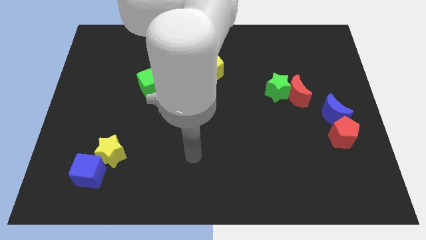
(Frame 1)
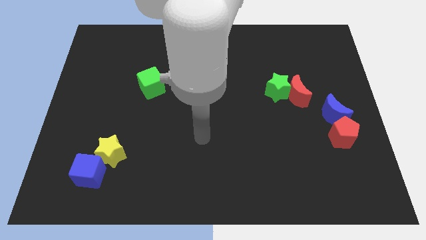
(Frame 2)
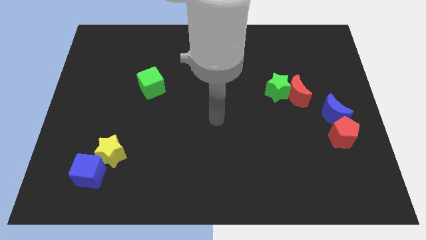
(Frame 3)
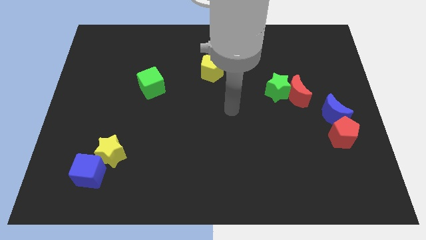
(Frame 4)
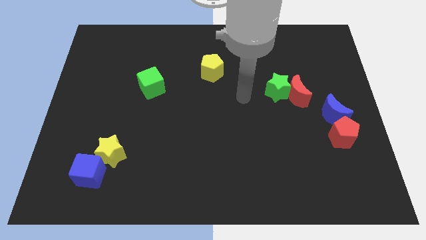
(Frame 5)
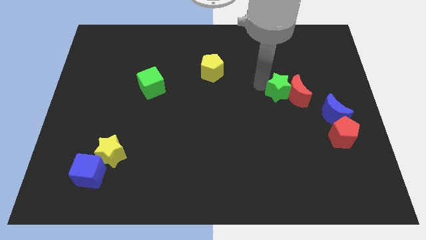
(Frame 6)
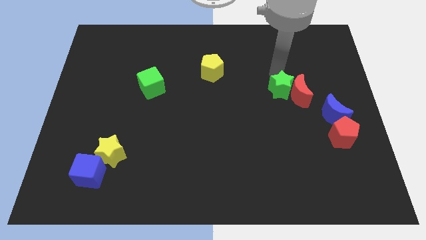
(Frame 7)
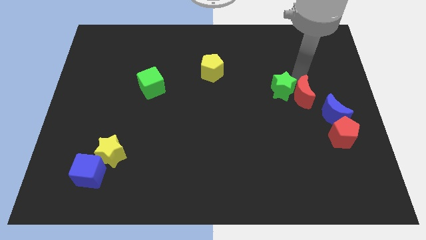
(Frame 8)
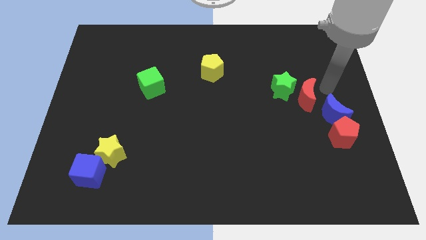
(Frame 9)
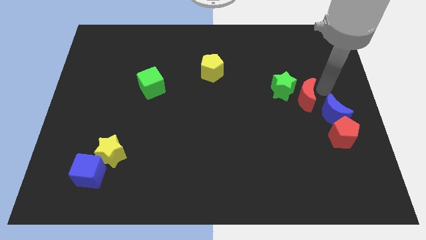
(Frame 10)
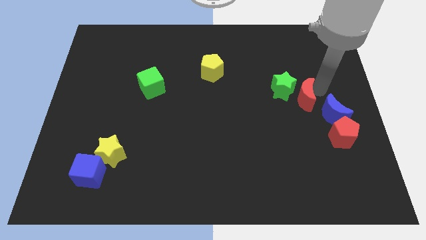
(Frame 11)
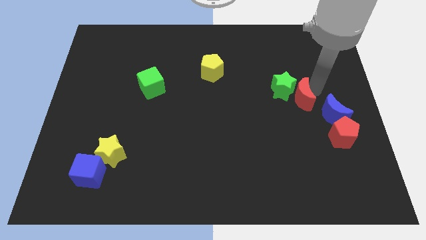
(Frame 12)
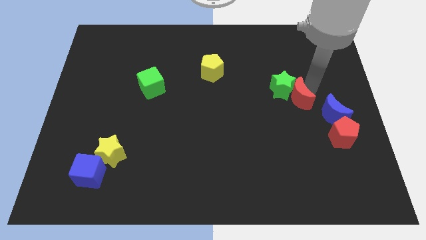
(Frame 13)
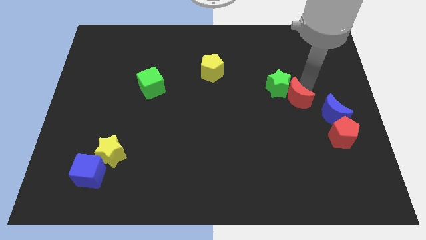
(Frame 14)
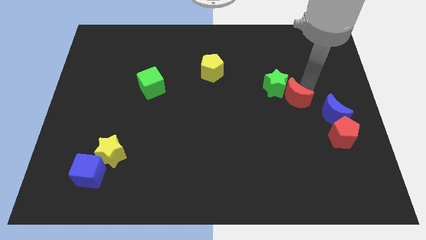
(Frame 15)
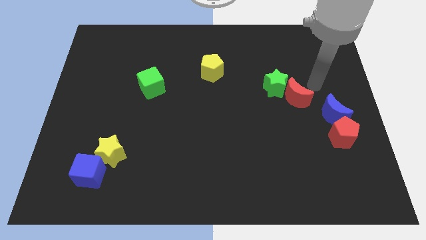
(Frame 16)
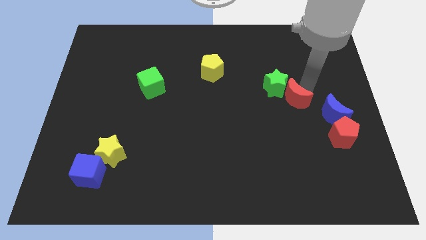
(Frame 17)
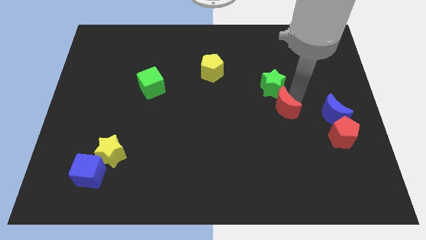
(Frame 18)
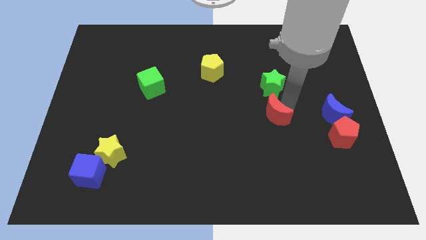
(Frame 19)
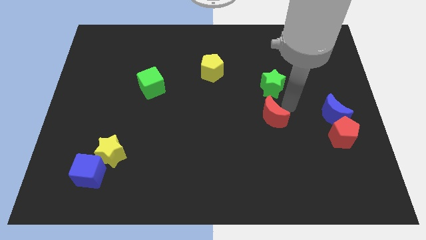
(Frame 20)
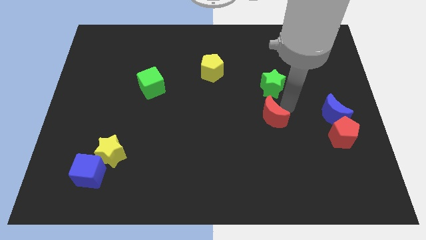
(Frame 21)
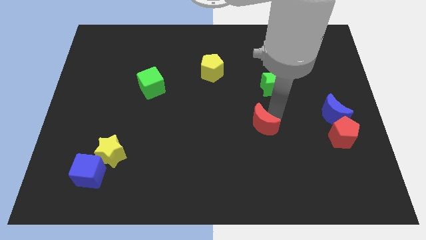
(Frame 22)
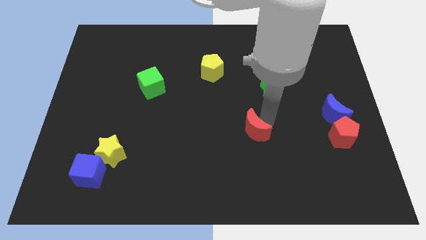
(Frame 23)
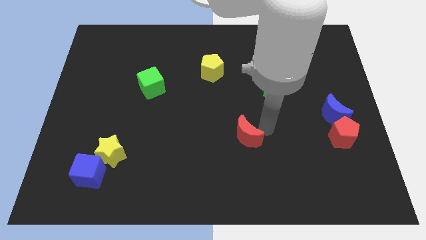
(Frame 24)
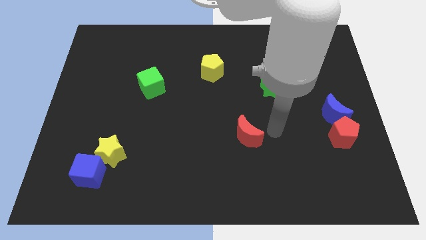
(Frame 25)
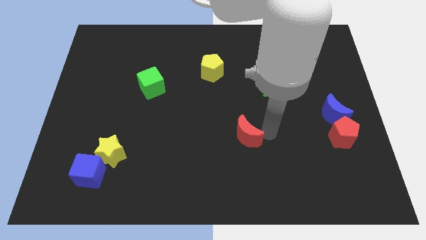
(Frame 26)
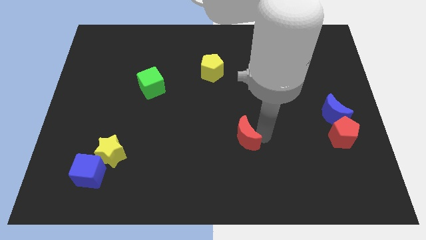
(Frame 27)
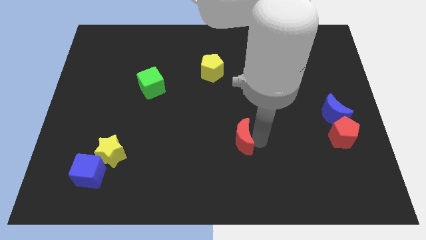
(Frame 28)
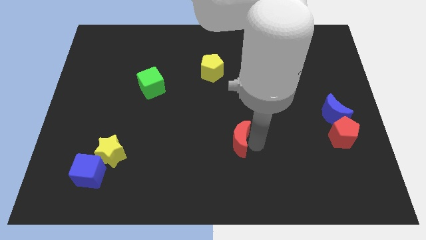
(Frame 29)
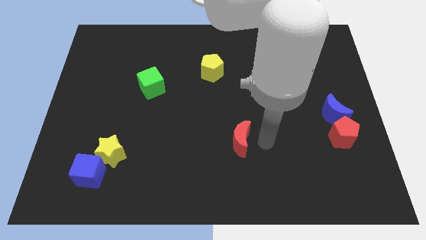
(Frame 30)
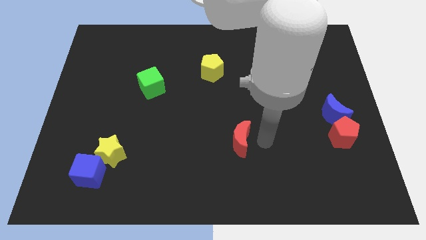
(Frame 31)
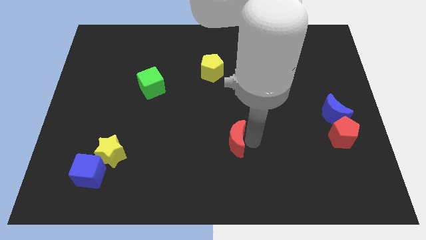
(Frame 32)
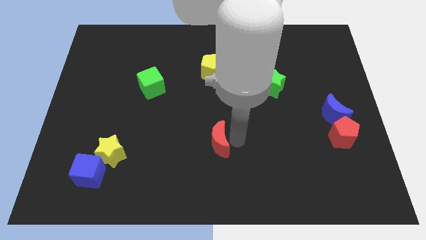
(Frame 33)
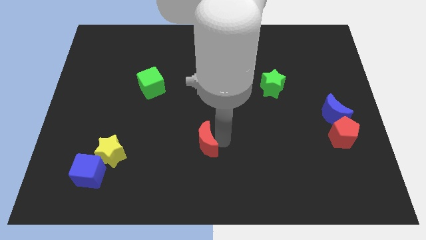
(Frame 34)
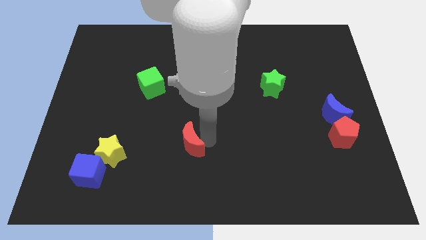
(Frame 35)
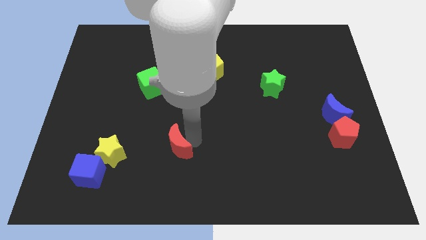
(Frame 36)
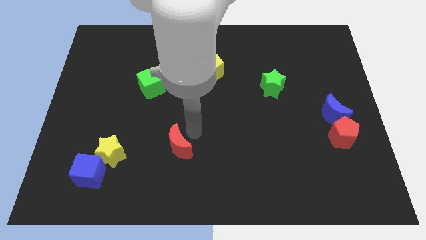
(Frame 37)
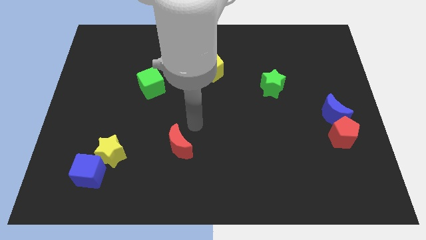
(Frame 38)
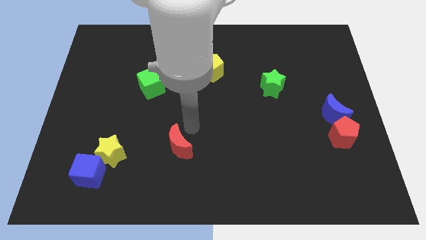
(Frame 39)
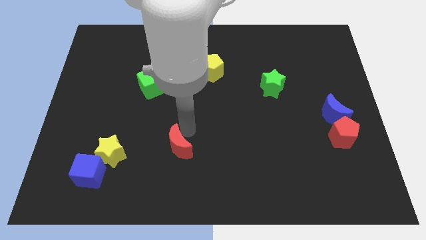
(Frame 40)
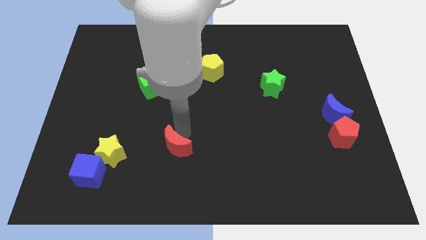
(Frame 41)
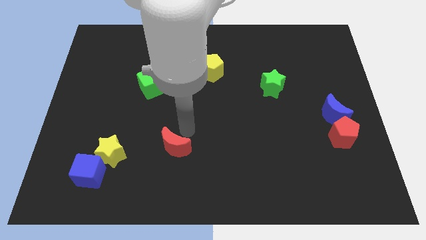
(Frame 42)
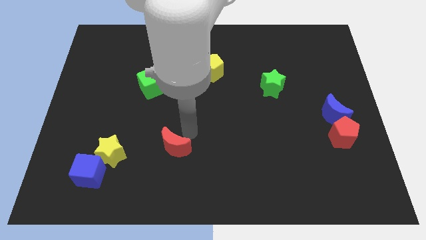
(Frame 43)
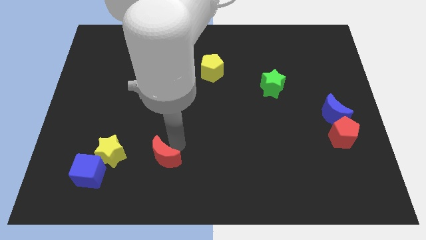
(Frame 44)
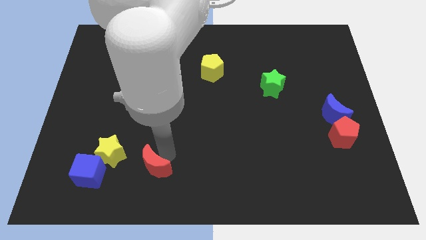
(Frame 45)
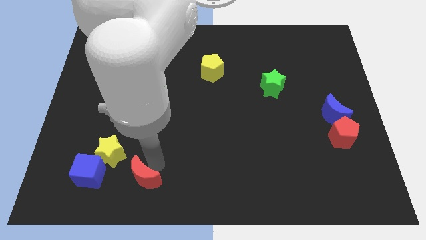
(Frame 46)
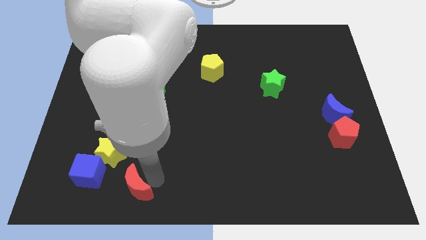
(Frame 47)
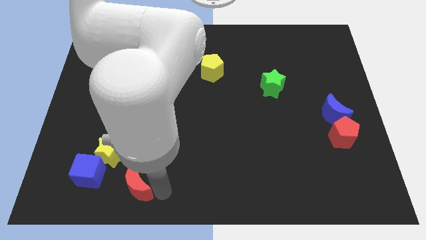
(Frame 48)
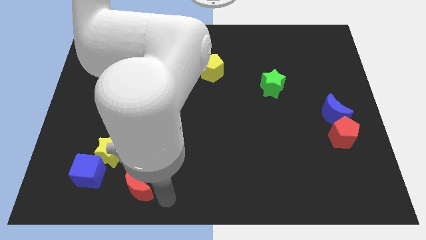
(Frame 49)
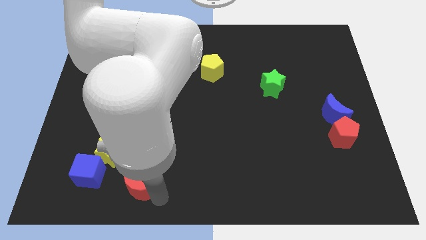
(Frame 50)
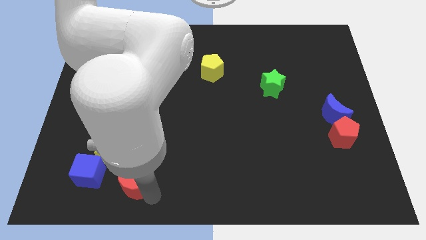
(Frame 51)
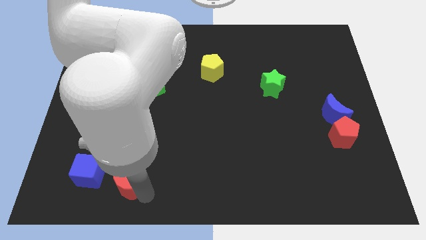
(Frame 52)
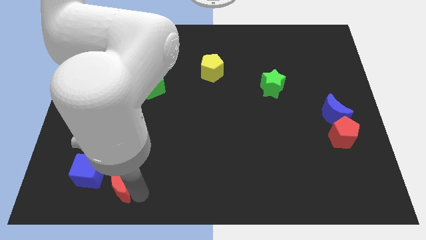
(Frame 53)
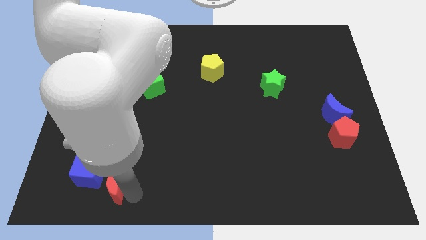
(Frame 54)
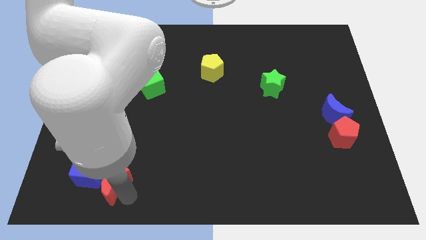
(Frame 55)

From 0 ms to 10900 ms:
push the red moon to the blue cube

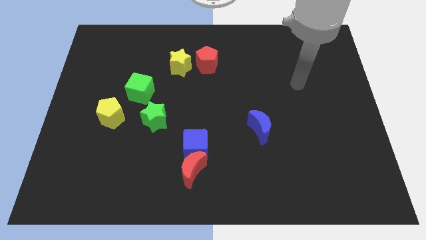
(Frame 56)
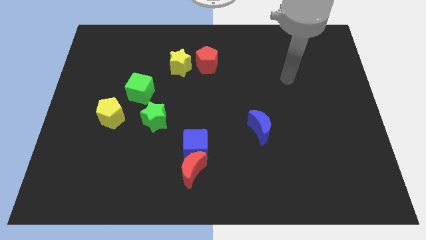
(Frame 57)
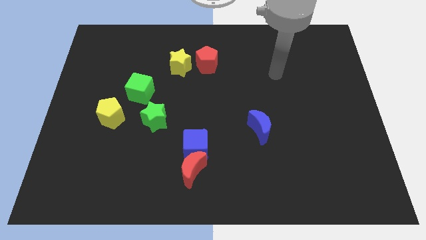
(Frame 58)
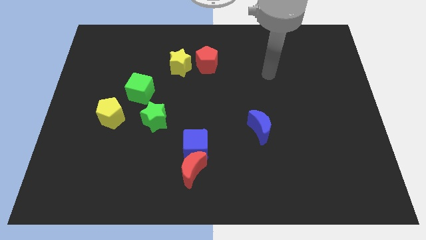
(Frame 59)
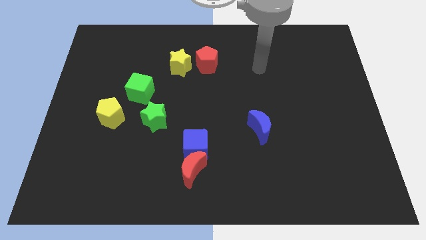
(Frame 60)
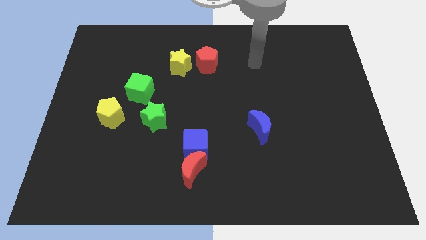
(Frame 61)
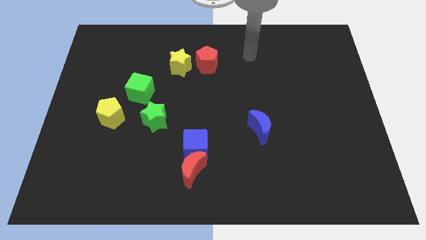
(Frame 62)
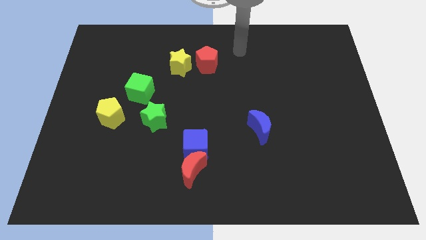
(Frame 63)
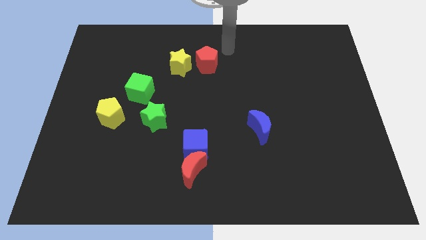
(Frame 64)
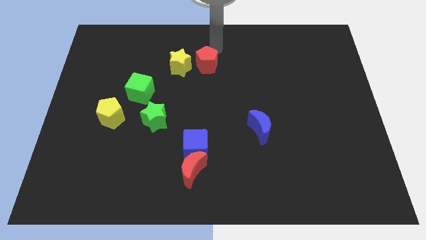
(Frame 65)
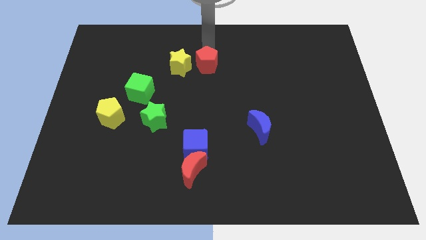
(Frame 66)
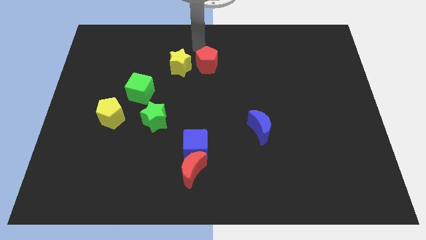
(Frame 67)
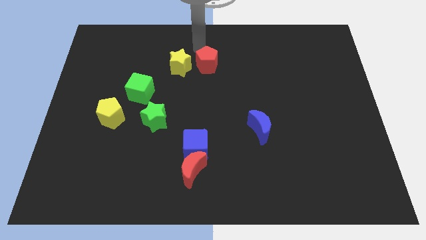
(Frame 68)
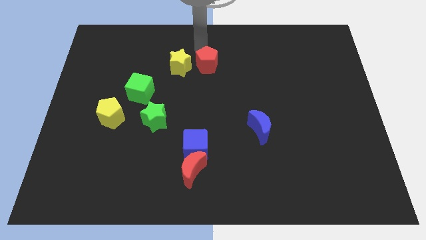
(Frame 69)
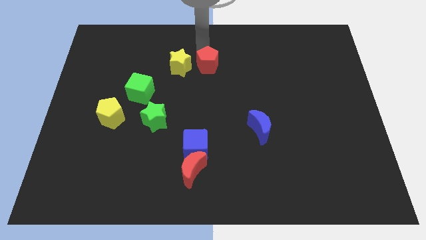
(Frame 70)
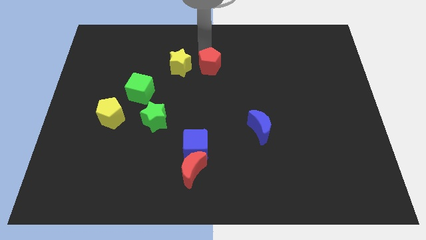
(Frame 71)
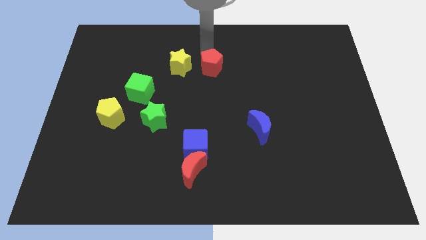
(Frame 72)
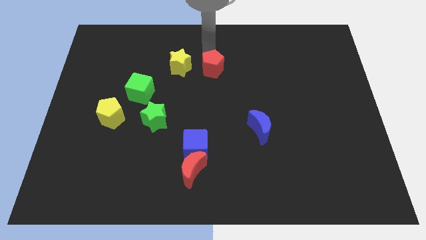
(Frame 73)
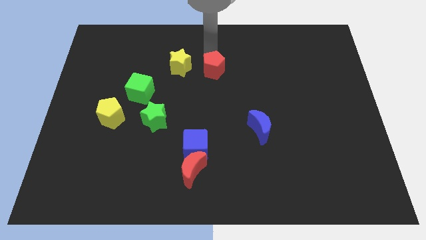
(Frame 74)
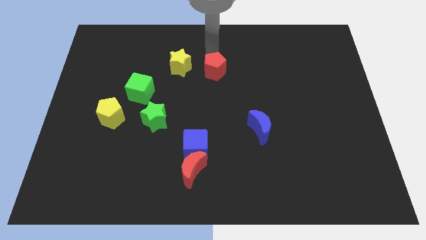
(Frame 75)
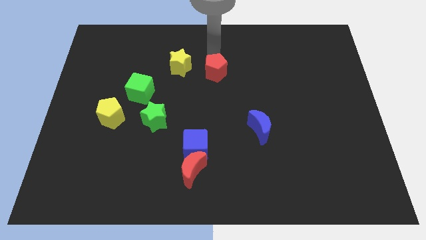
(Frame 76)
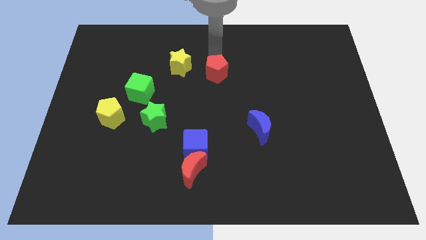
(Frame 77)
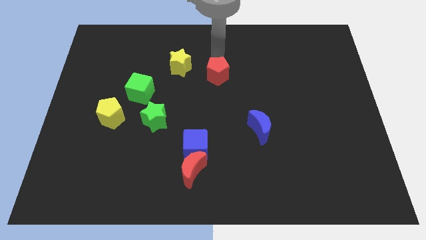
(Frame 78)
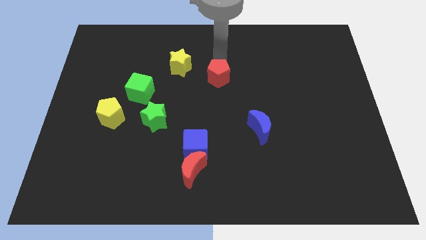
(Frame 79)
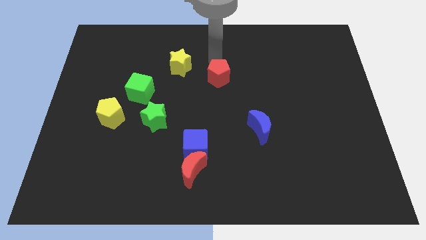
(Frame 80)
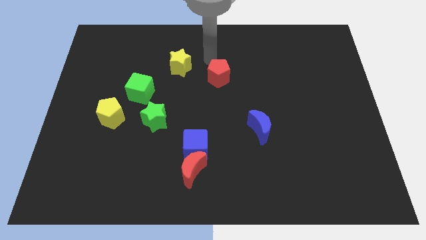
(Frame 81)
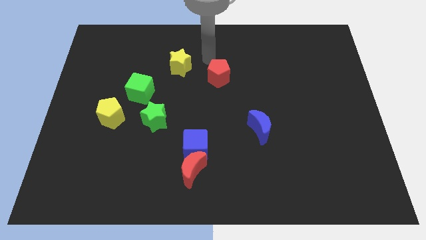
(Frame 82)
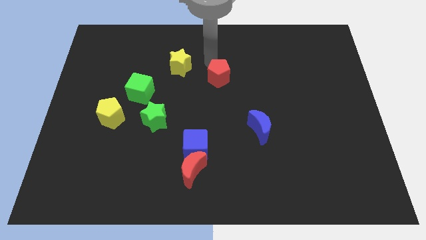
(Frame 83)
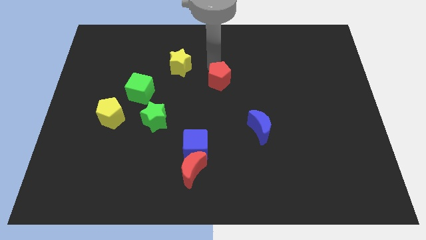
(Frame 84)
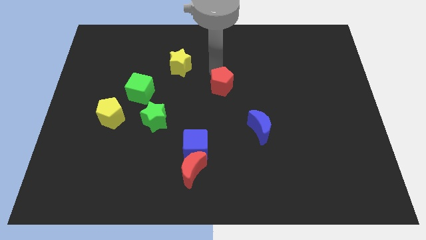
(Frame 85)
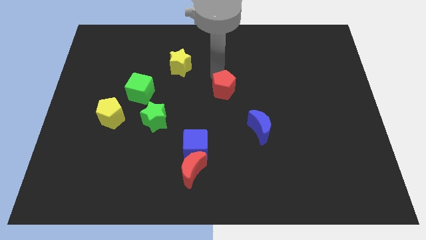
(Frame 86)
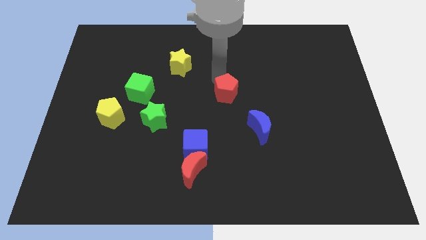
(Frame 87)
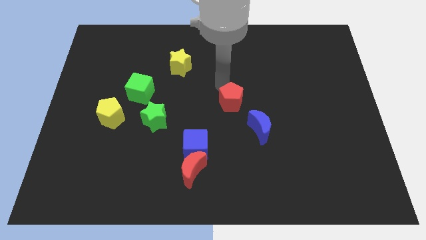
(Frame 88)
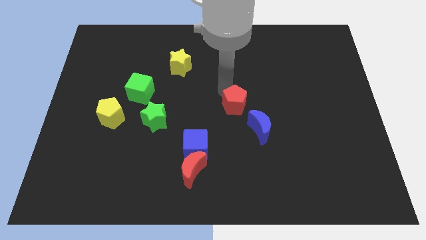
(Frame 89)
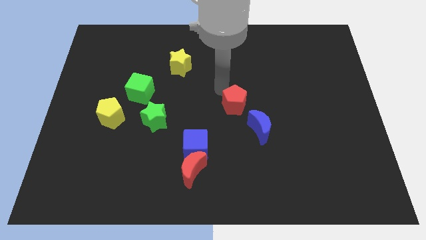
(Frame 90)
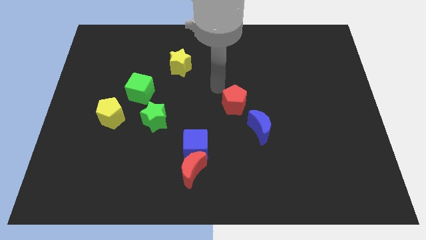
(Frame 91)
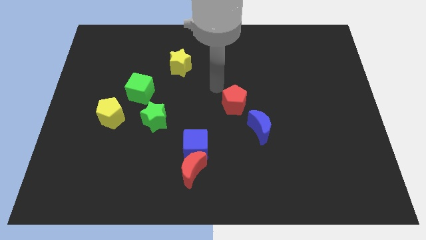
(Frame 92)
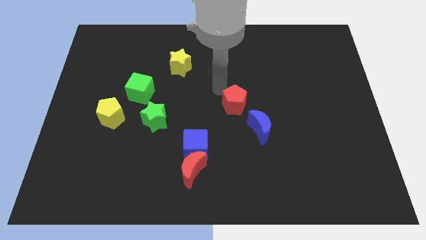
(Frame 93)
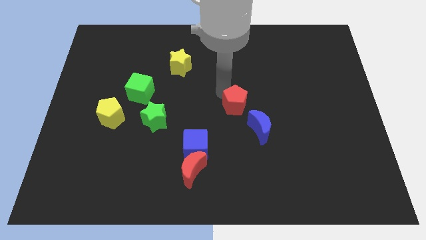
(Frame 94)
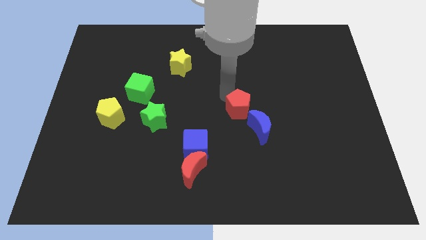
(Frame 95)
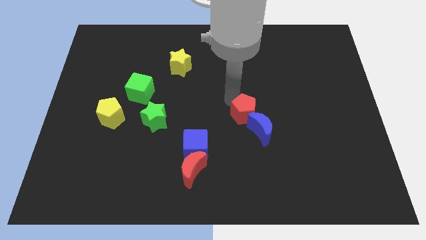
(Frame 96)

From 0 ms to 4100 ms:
push the red pentagon close to the blue moon
